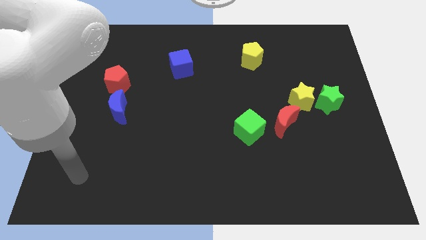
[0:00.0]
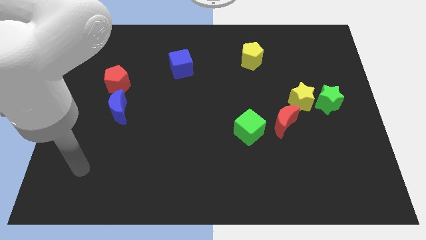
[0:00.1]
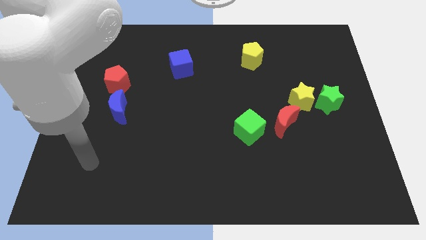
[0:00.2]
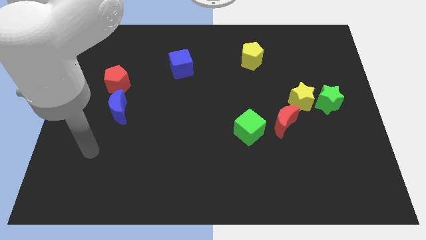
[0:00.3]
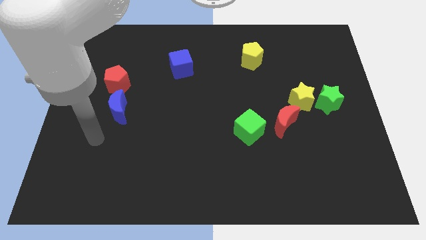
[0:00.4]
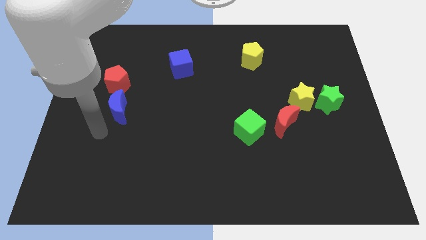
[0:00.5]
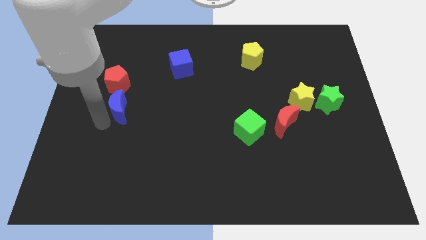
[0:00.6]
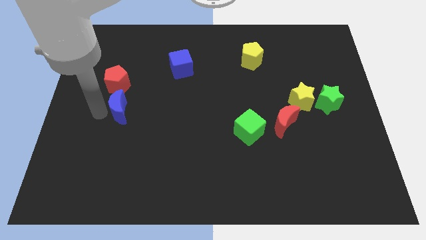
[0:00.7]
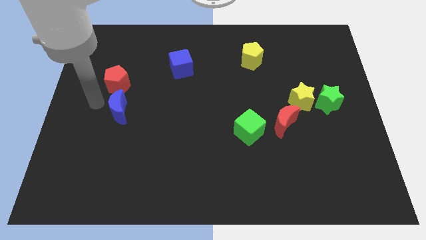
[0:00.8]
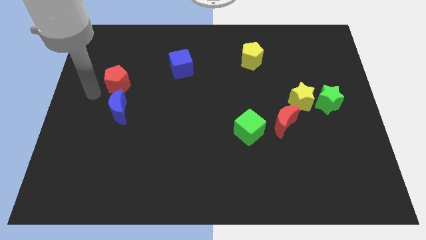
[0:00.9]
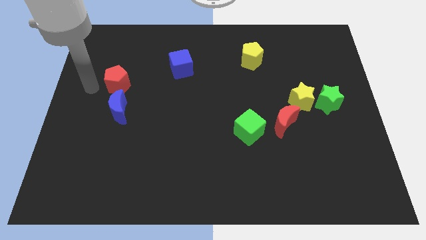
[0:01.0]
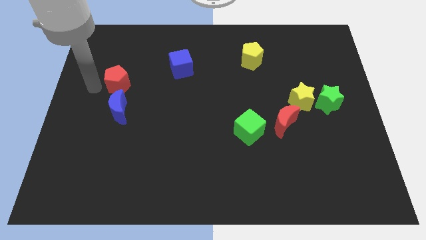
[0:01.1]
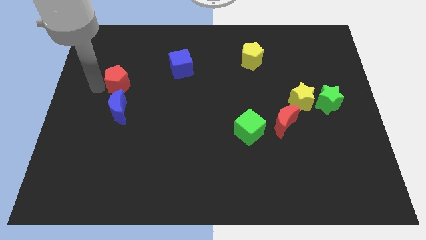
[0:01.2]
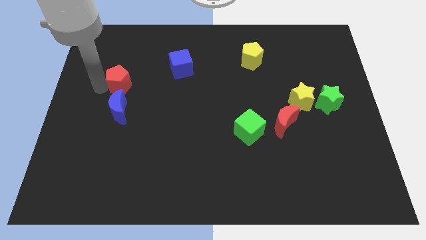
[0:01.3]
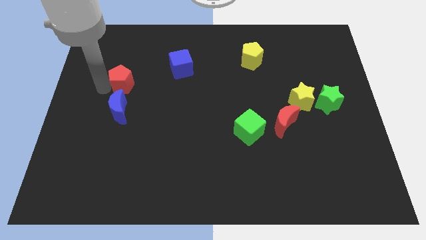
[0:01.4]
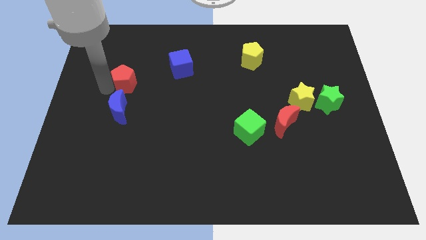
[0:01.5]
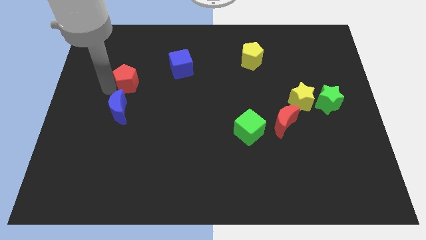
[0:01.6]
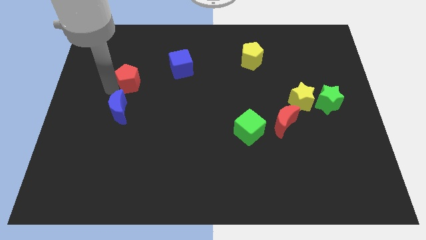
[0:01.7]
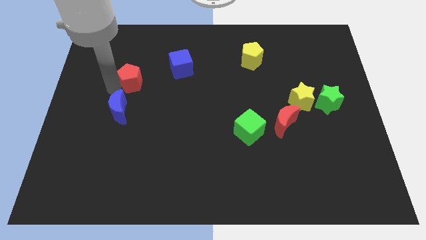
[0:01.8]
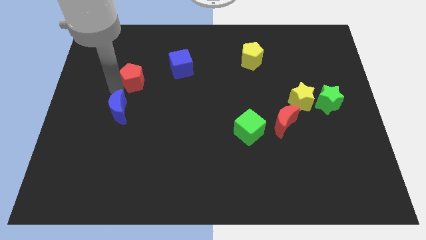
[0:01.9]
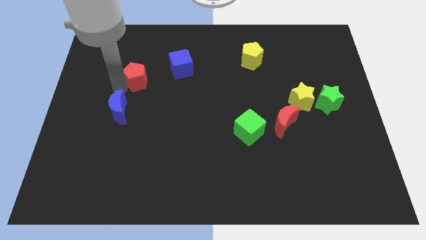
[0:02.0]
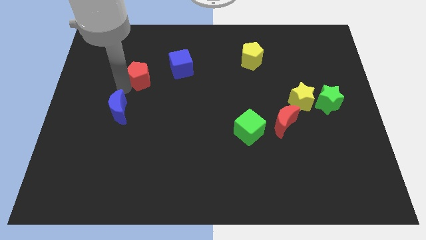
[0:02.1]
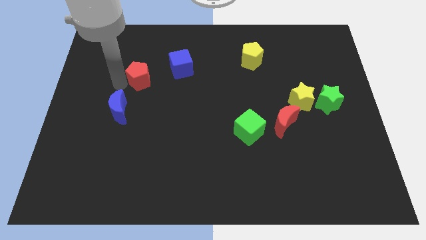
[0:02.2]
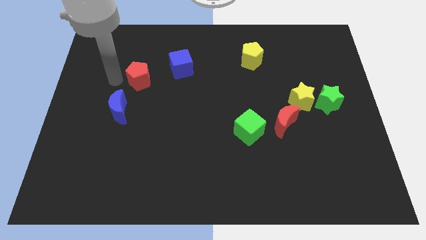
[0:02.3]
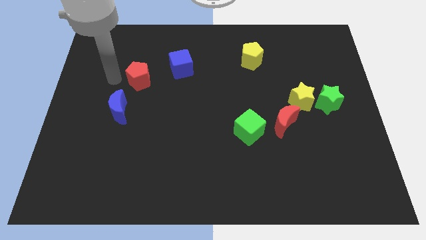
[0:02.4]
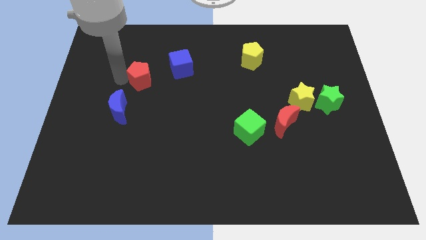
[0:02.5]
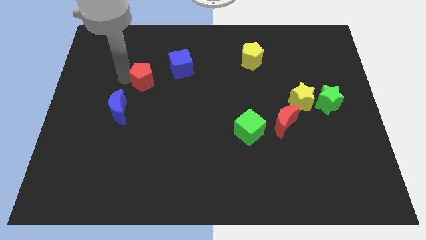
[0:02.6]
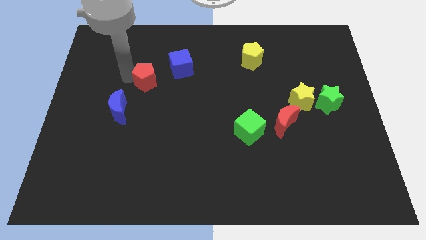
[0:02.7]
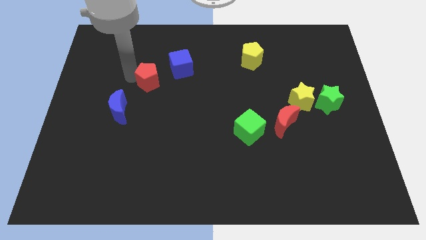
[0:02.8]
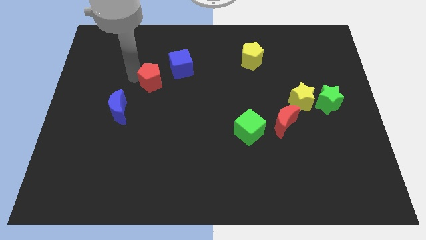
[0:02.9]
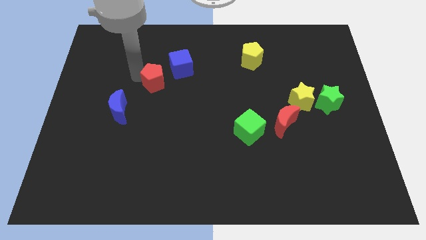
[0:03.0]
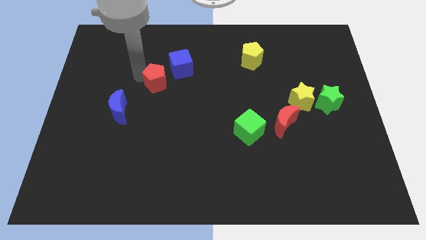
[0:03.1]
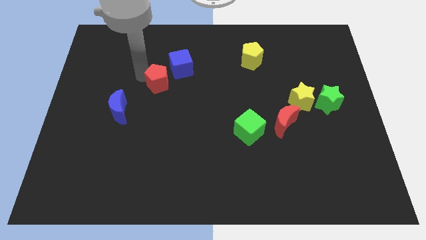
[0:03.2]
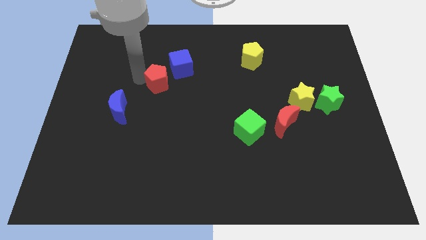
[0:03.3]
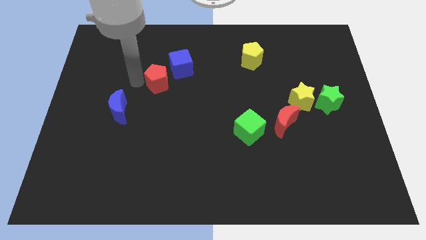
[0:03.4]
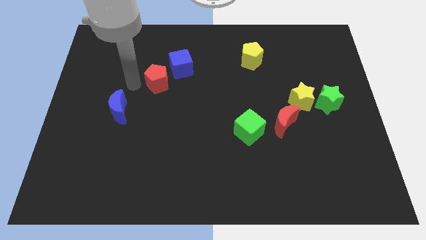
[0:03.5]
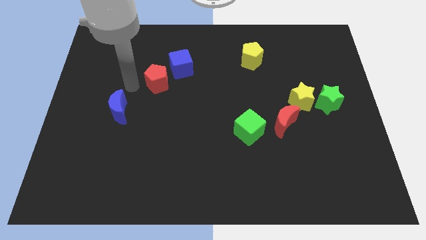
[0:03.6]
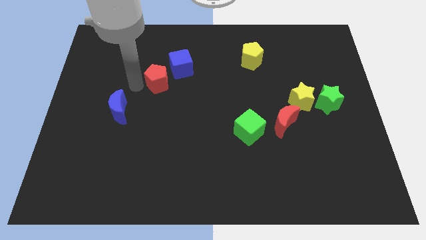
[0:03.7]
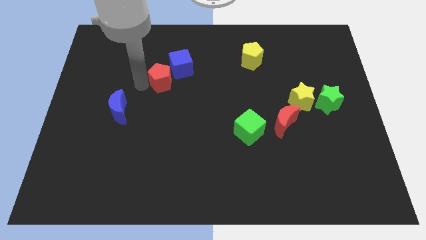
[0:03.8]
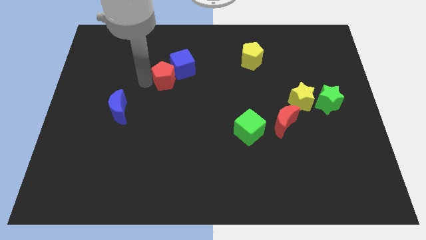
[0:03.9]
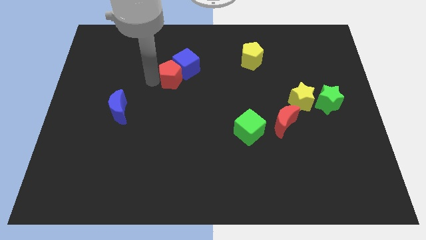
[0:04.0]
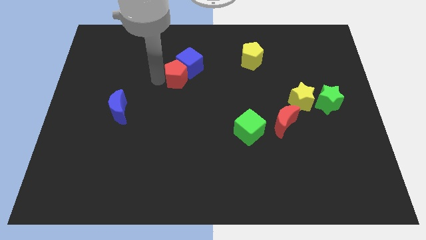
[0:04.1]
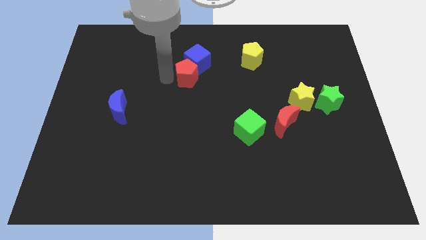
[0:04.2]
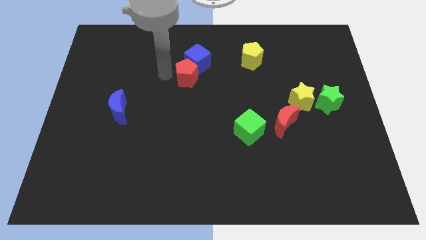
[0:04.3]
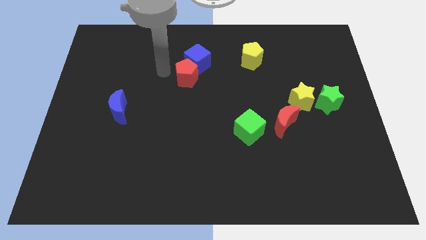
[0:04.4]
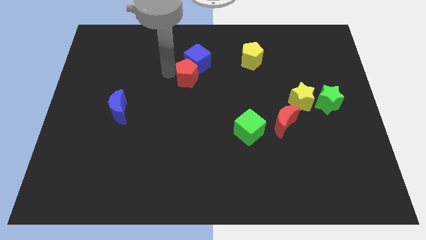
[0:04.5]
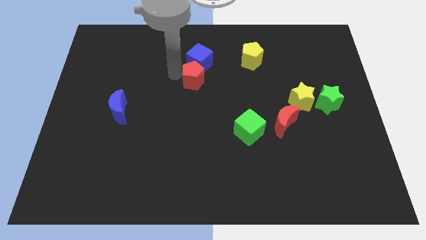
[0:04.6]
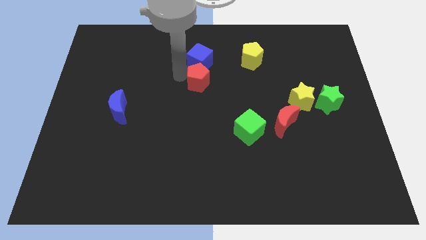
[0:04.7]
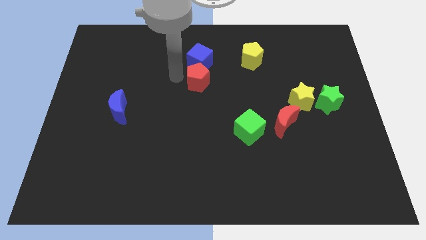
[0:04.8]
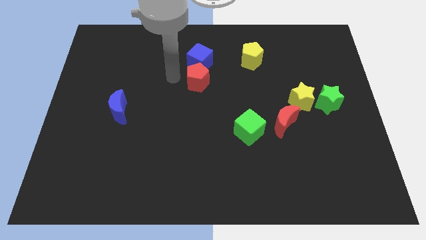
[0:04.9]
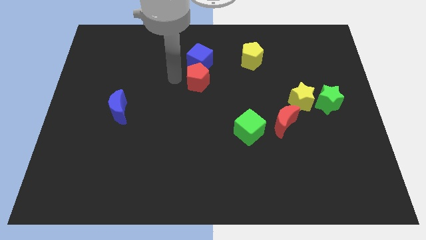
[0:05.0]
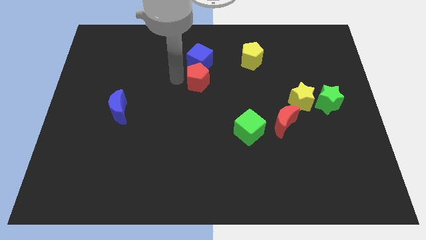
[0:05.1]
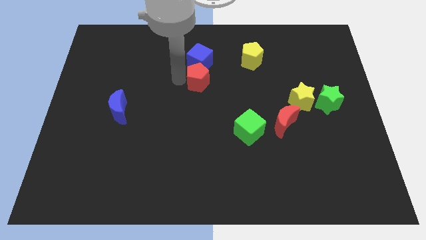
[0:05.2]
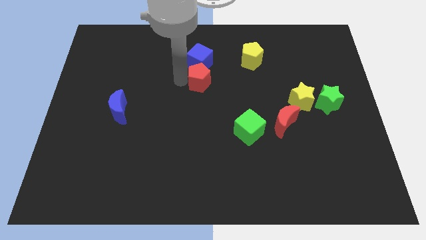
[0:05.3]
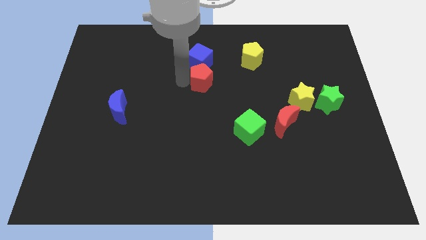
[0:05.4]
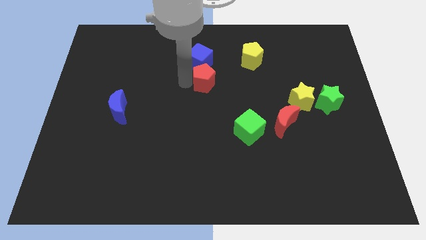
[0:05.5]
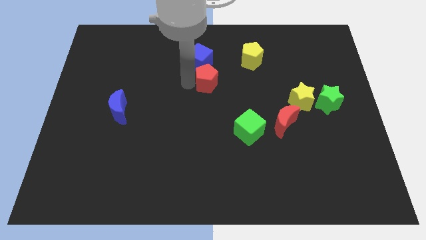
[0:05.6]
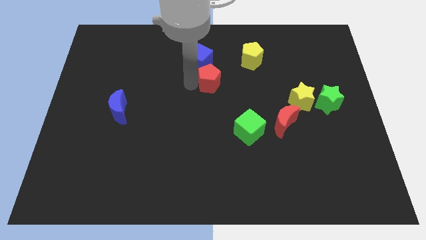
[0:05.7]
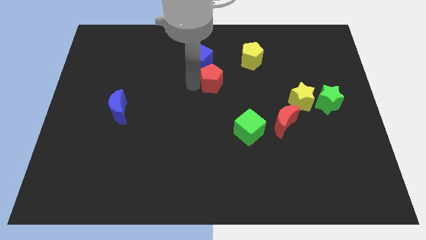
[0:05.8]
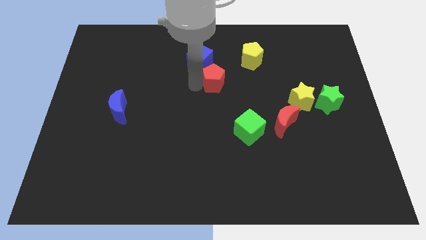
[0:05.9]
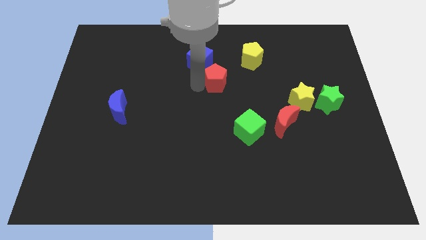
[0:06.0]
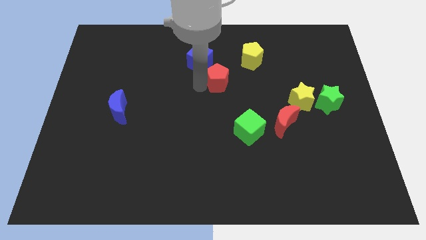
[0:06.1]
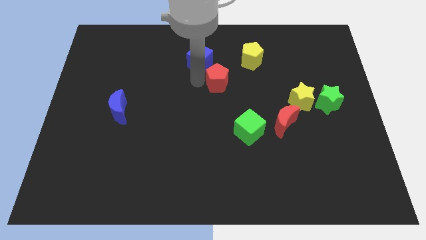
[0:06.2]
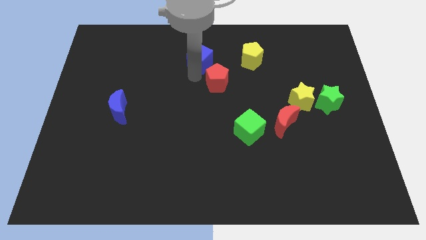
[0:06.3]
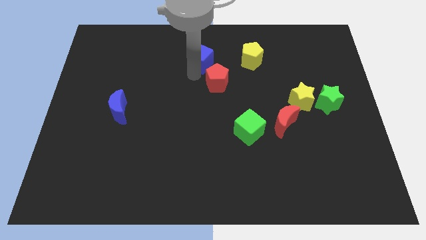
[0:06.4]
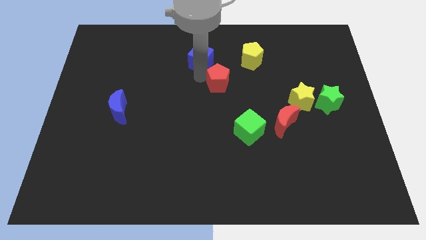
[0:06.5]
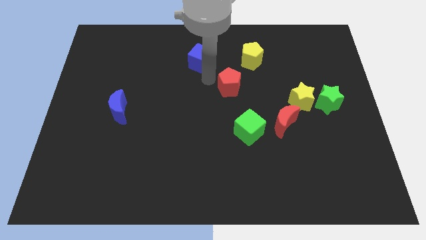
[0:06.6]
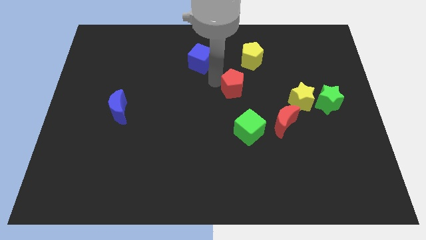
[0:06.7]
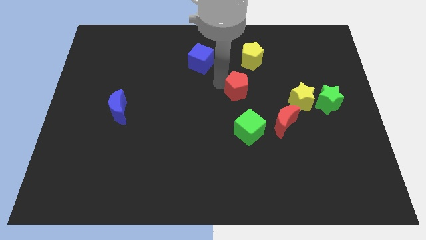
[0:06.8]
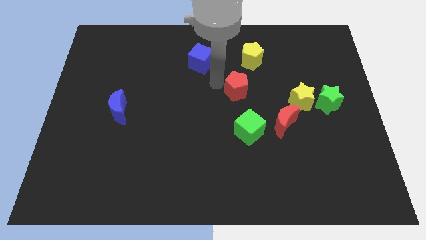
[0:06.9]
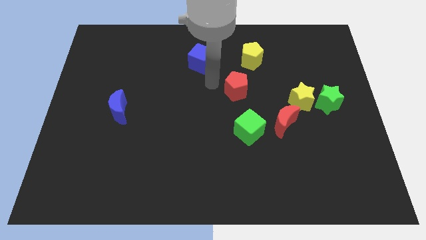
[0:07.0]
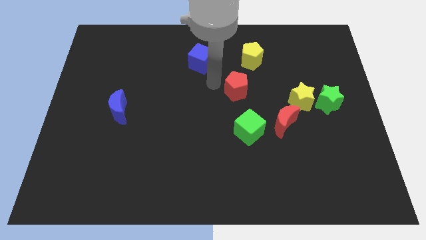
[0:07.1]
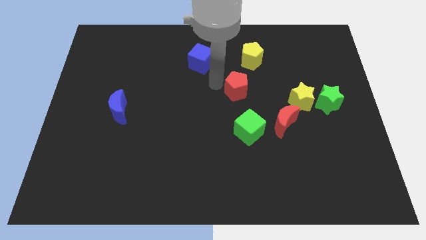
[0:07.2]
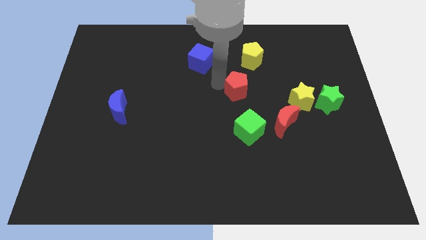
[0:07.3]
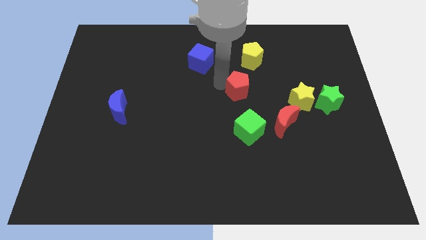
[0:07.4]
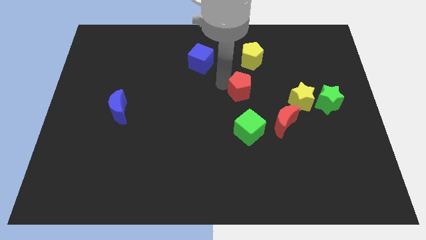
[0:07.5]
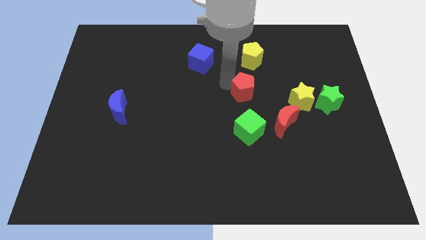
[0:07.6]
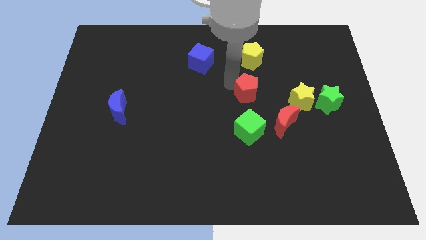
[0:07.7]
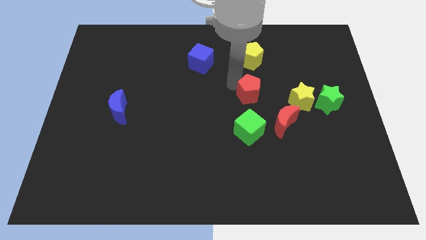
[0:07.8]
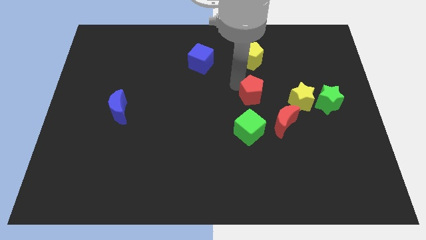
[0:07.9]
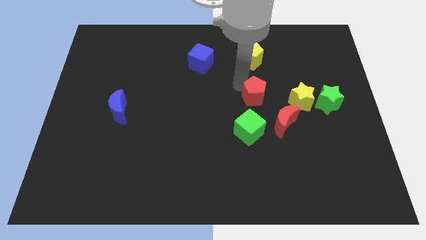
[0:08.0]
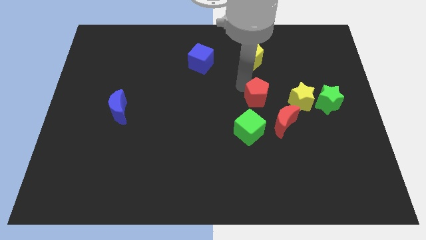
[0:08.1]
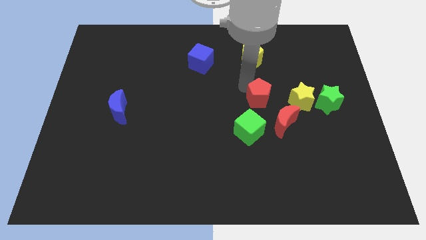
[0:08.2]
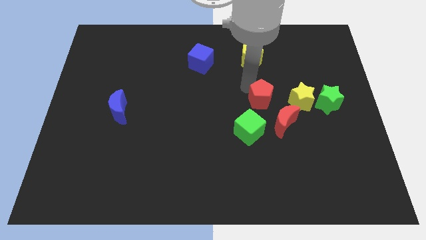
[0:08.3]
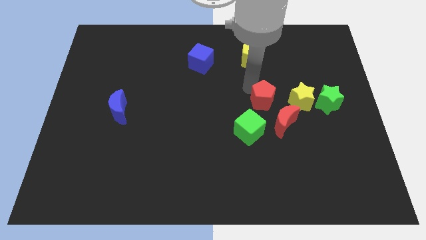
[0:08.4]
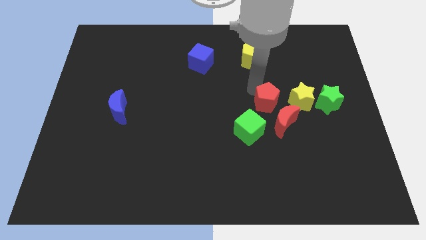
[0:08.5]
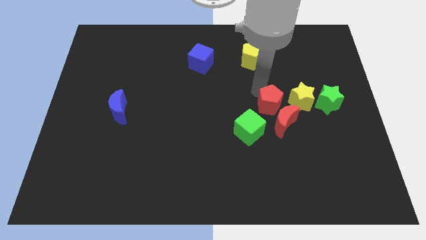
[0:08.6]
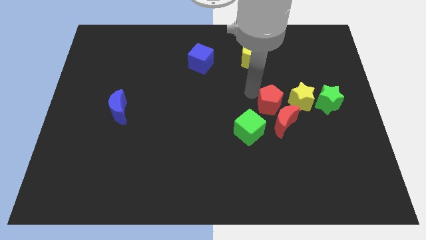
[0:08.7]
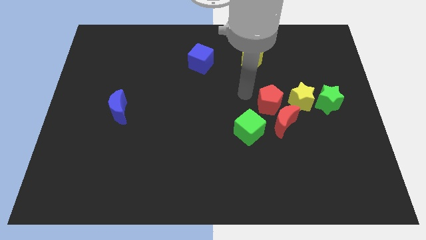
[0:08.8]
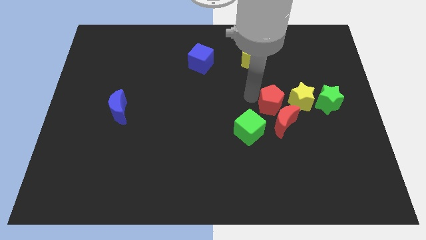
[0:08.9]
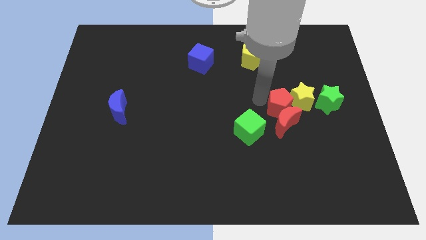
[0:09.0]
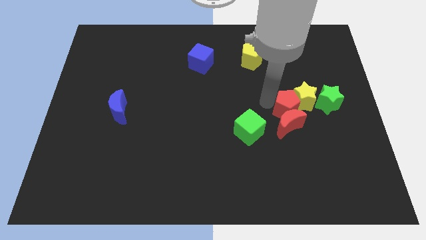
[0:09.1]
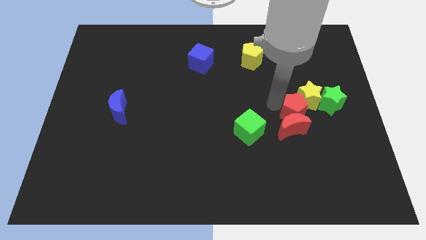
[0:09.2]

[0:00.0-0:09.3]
push the red pentagon to the bottom left side of the green star
